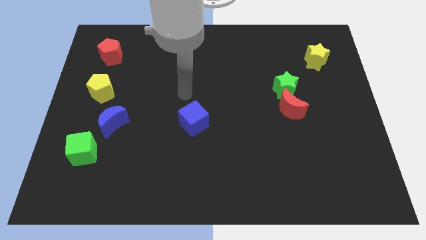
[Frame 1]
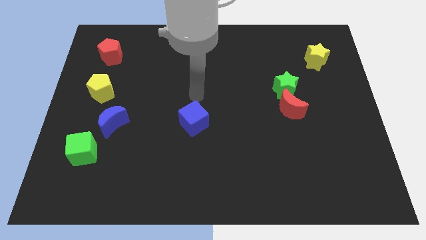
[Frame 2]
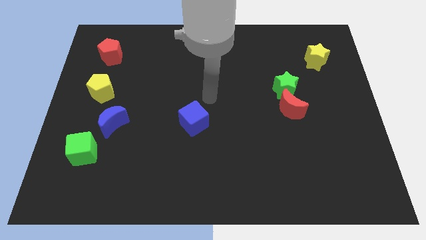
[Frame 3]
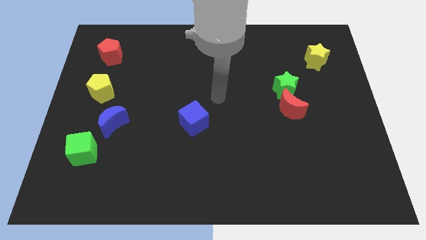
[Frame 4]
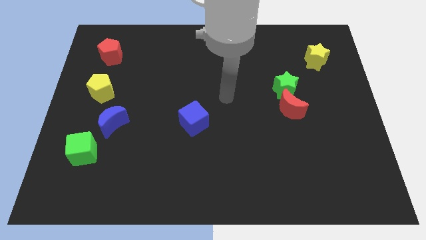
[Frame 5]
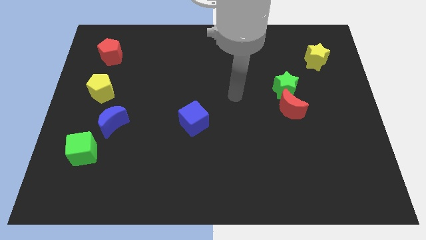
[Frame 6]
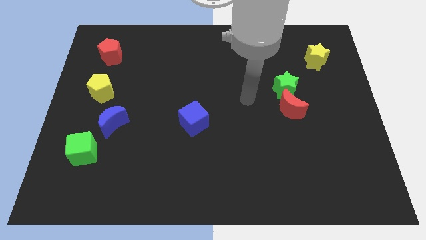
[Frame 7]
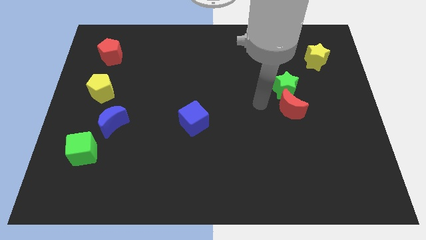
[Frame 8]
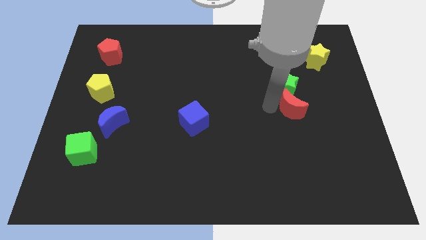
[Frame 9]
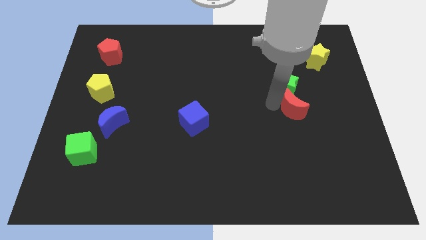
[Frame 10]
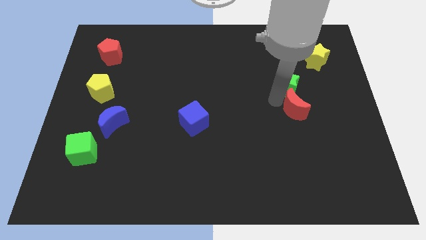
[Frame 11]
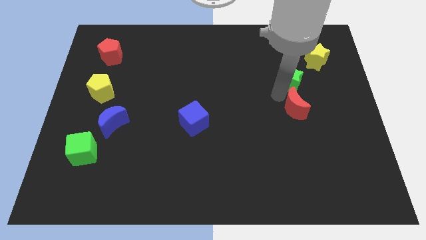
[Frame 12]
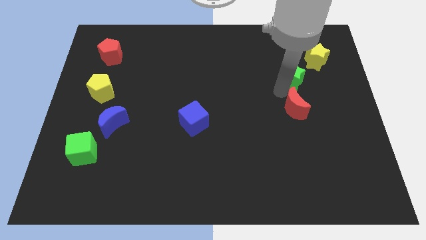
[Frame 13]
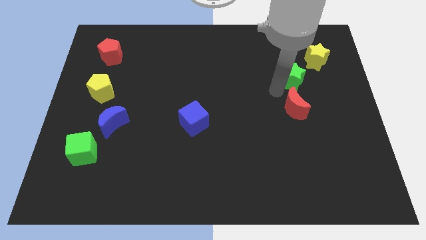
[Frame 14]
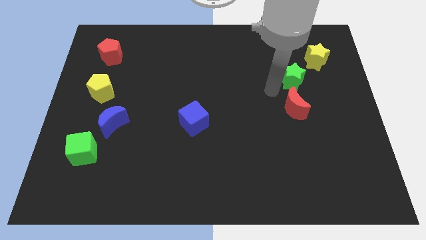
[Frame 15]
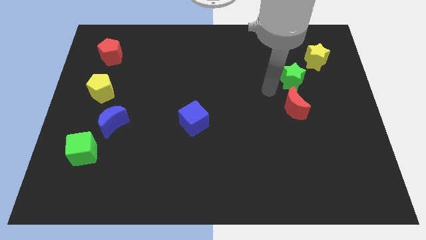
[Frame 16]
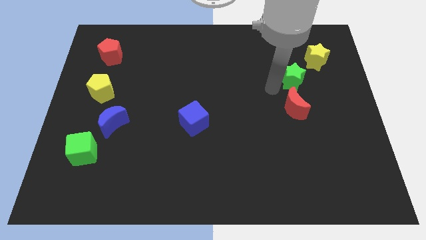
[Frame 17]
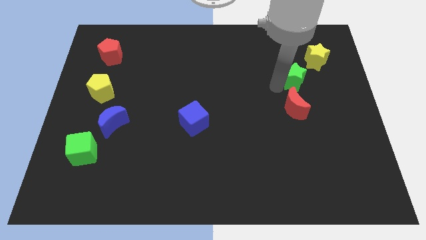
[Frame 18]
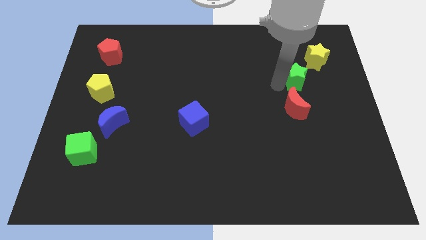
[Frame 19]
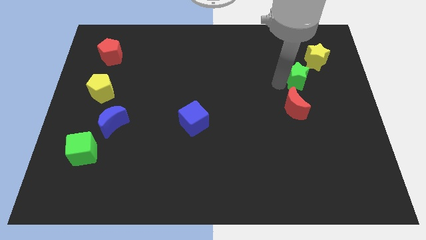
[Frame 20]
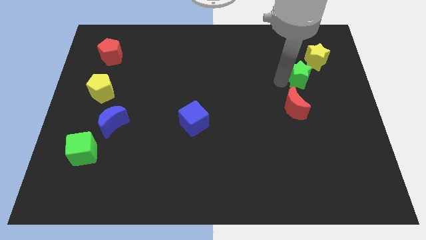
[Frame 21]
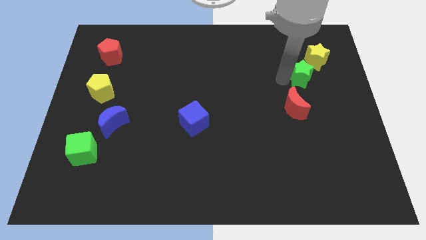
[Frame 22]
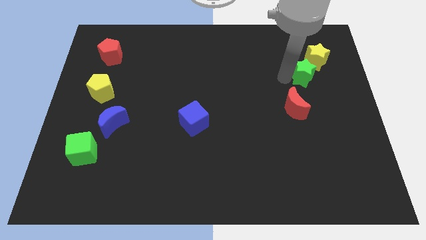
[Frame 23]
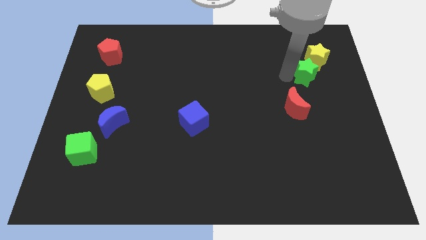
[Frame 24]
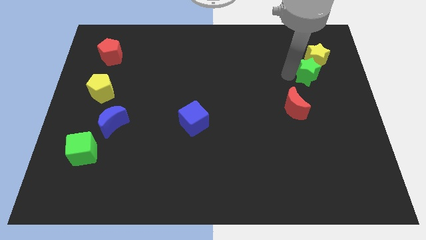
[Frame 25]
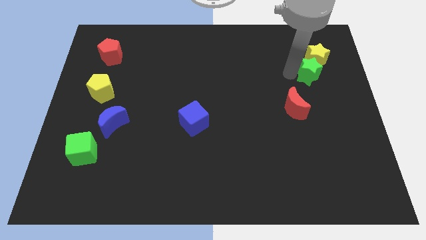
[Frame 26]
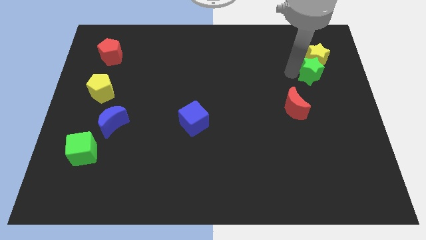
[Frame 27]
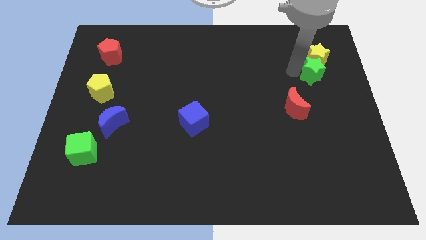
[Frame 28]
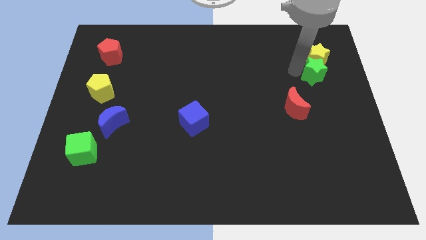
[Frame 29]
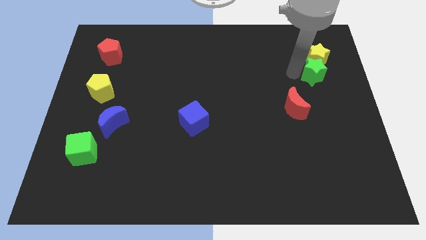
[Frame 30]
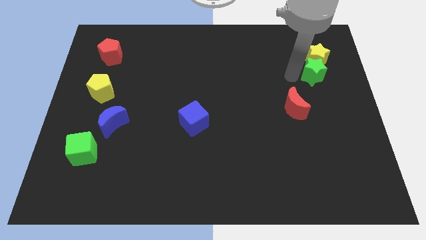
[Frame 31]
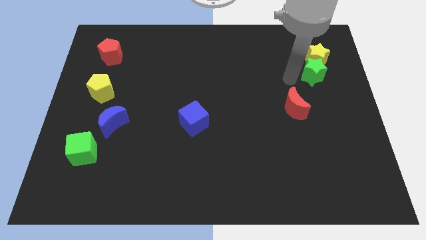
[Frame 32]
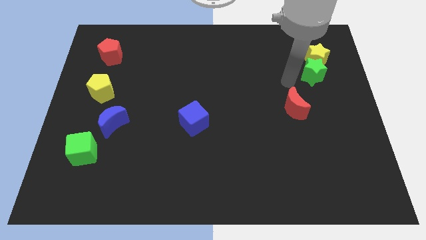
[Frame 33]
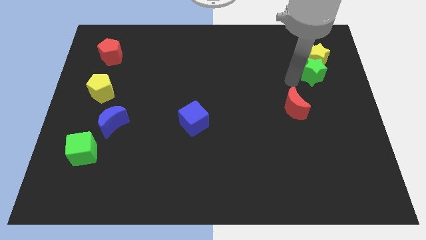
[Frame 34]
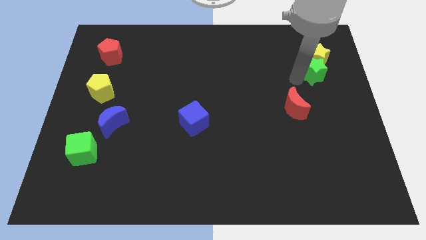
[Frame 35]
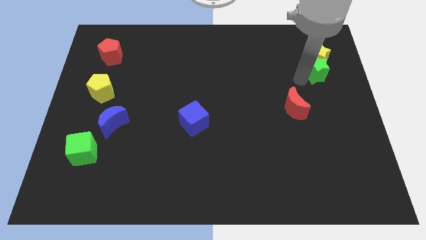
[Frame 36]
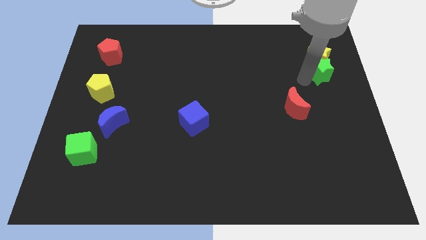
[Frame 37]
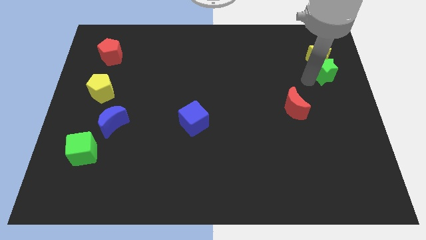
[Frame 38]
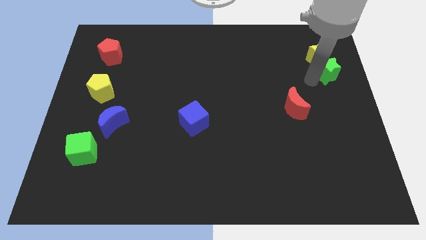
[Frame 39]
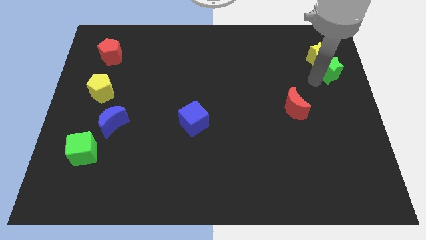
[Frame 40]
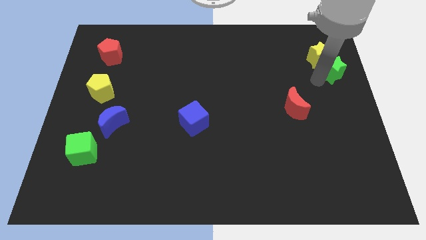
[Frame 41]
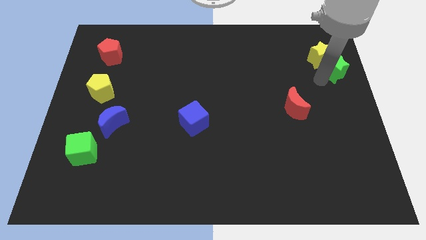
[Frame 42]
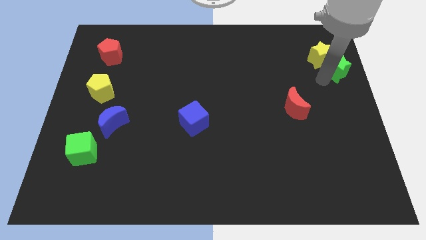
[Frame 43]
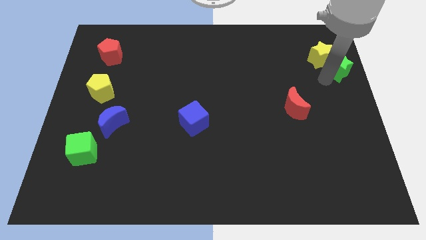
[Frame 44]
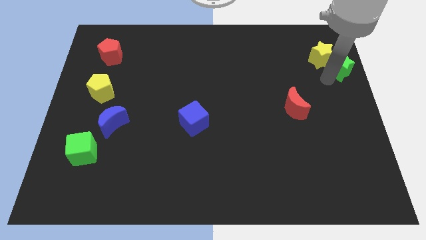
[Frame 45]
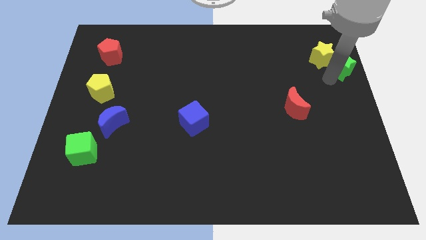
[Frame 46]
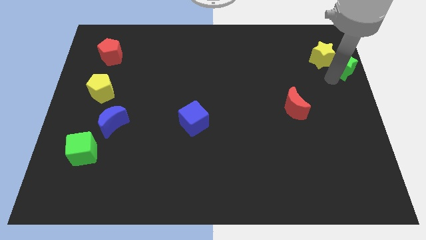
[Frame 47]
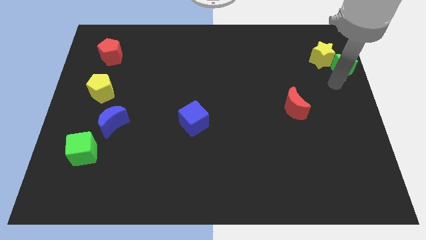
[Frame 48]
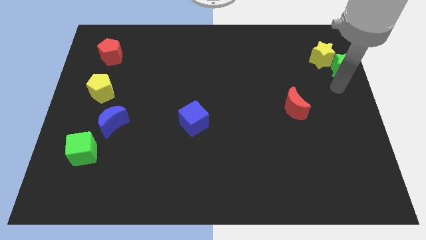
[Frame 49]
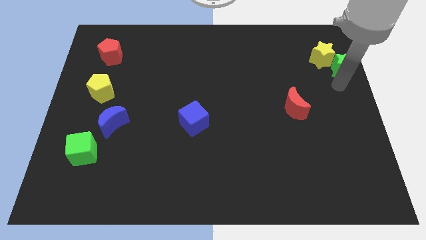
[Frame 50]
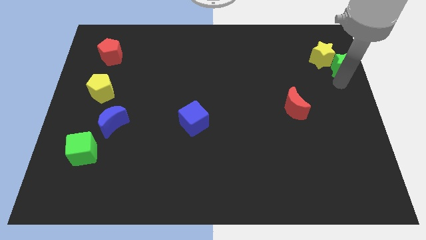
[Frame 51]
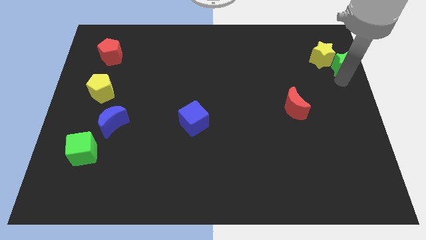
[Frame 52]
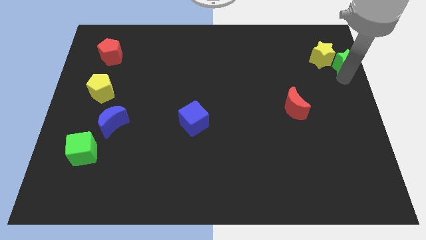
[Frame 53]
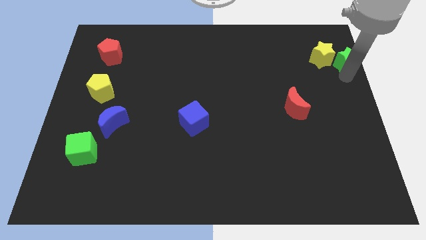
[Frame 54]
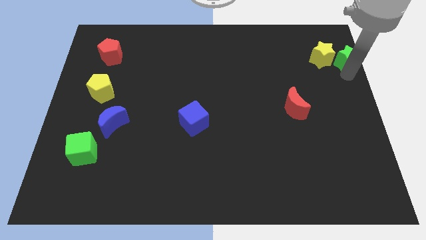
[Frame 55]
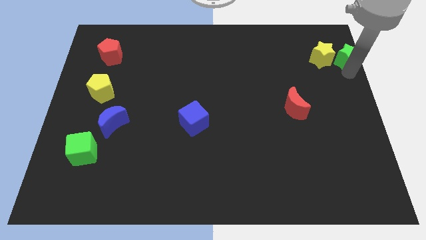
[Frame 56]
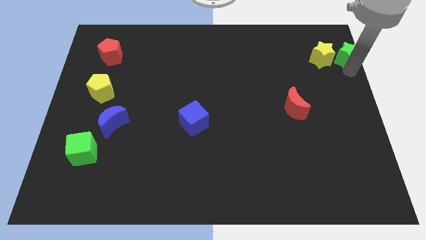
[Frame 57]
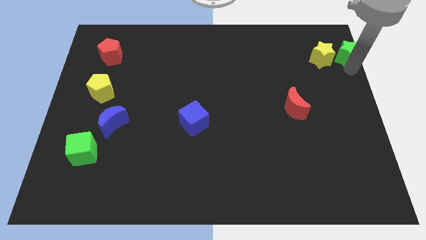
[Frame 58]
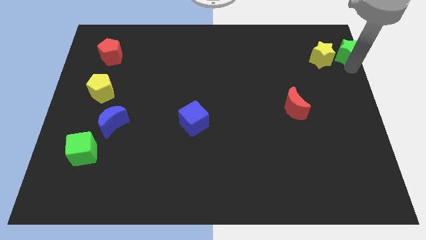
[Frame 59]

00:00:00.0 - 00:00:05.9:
move the green star to the top right
